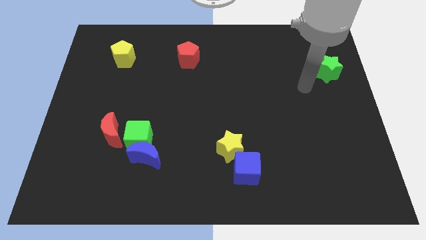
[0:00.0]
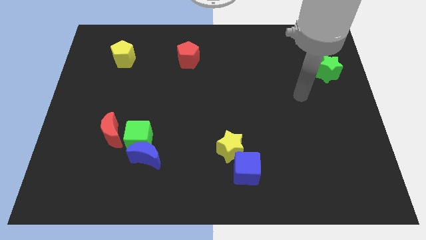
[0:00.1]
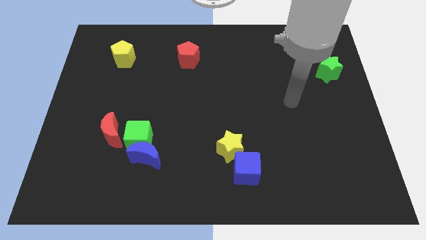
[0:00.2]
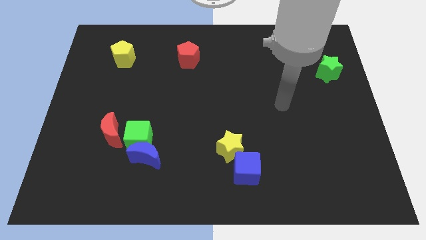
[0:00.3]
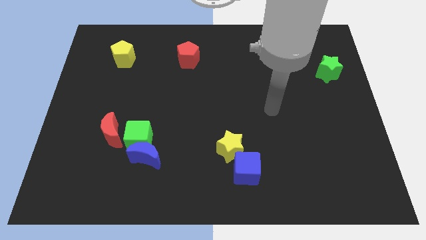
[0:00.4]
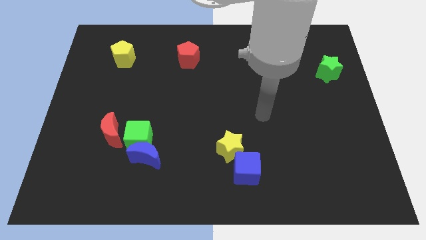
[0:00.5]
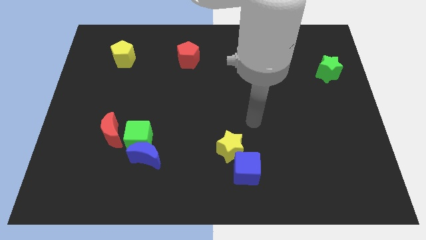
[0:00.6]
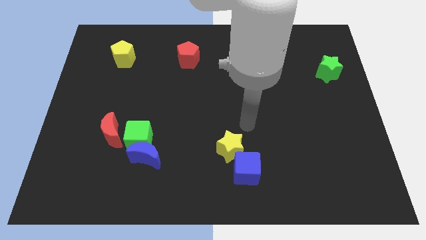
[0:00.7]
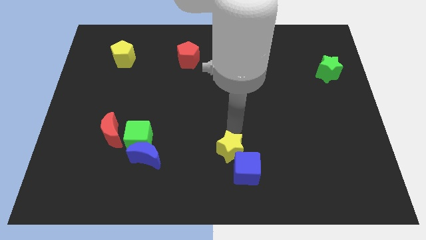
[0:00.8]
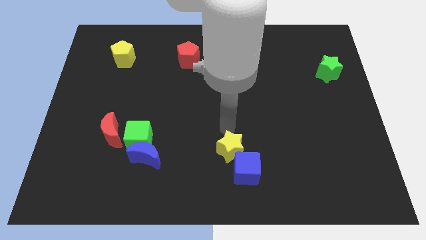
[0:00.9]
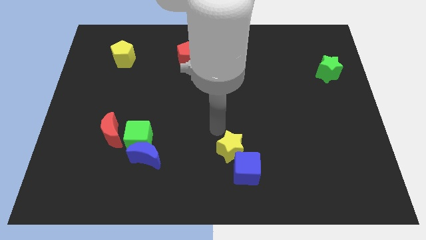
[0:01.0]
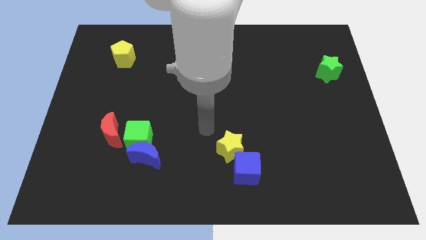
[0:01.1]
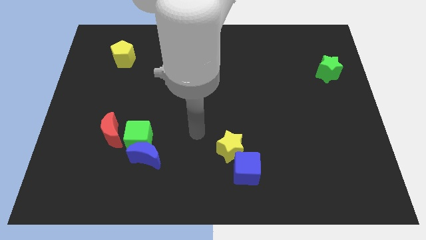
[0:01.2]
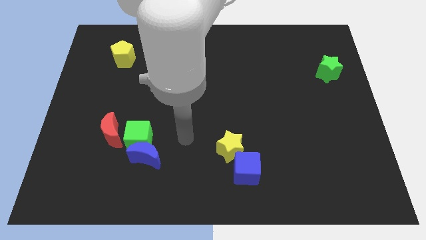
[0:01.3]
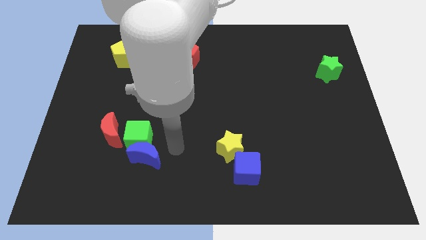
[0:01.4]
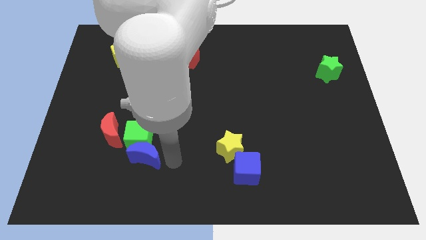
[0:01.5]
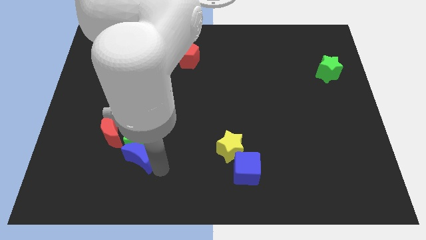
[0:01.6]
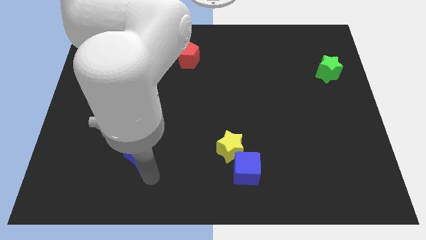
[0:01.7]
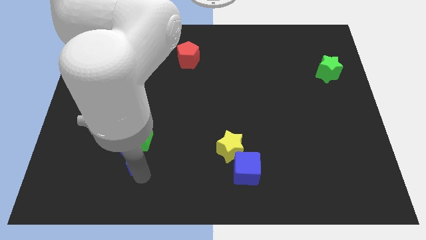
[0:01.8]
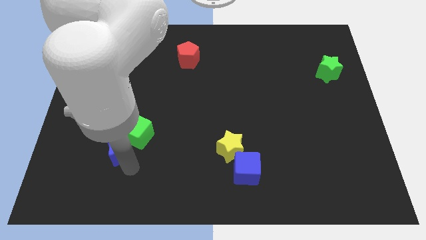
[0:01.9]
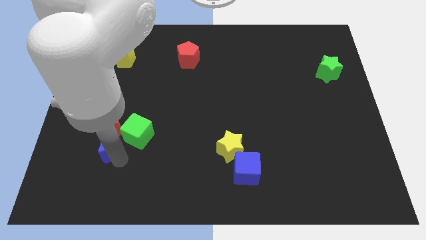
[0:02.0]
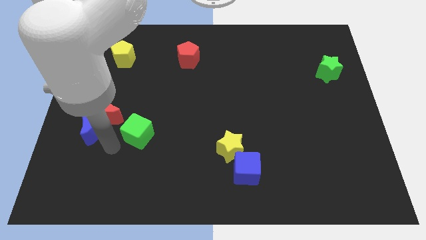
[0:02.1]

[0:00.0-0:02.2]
pull the green cube apart from the blue moon and red moon

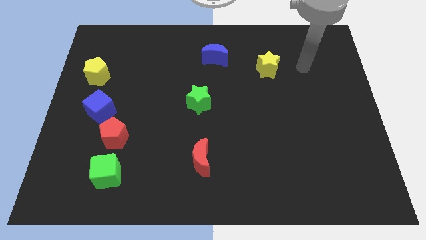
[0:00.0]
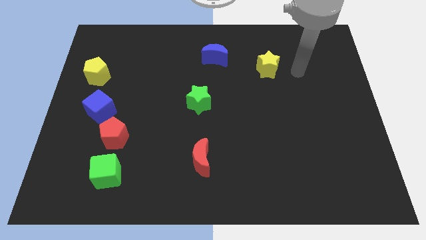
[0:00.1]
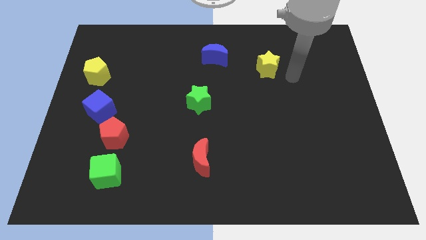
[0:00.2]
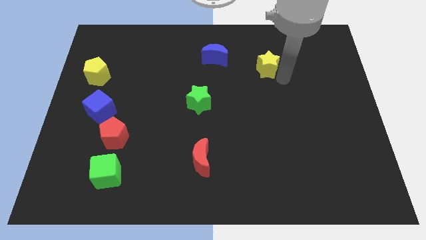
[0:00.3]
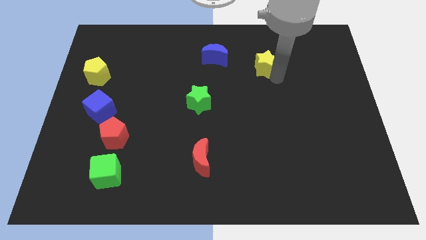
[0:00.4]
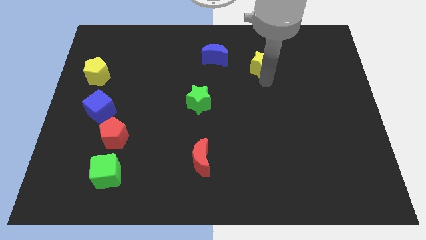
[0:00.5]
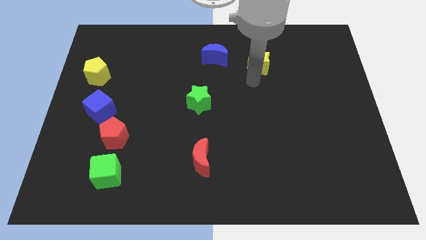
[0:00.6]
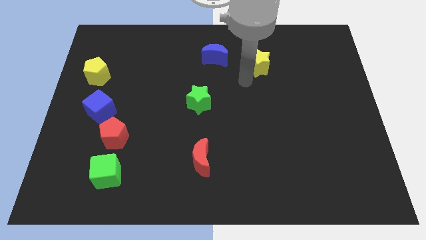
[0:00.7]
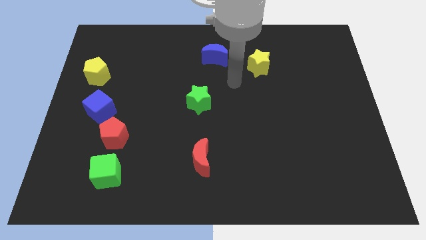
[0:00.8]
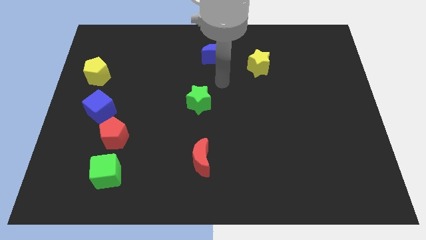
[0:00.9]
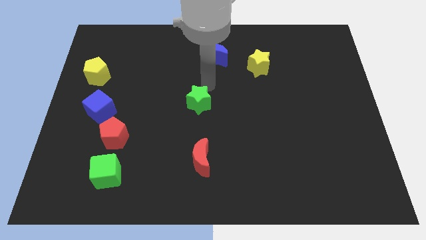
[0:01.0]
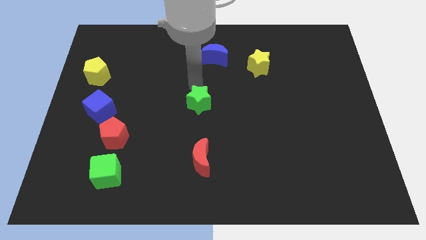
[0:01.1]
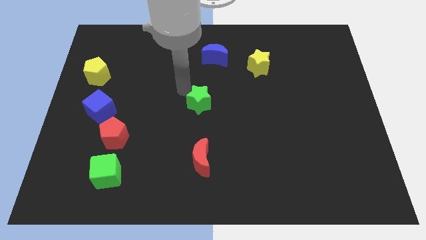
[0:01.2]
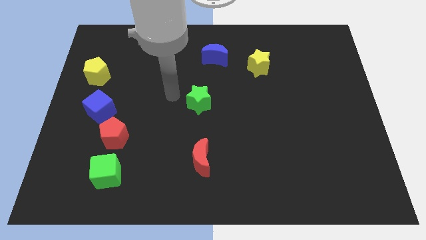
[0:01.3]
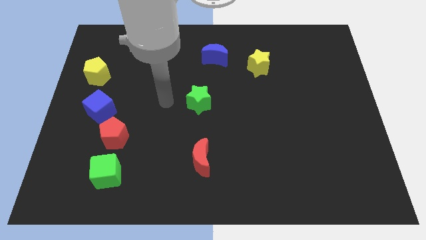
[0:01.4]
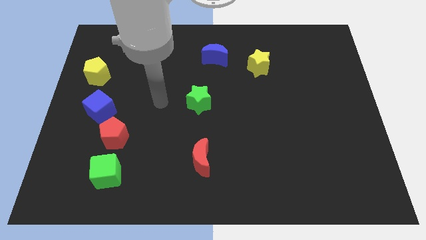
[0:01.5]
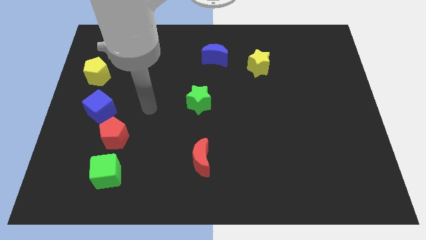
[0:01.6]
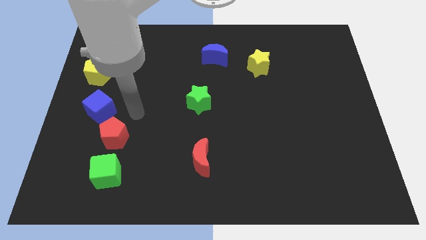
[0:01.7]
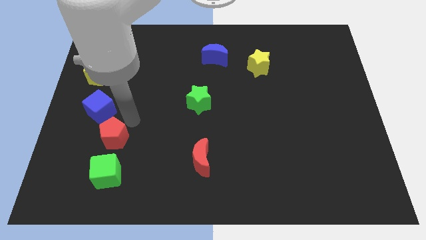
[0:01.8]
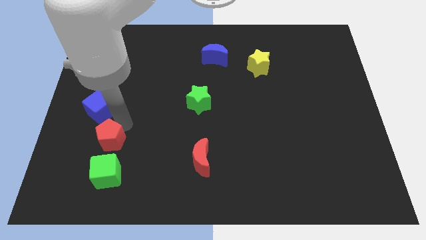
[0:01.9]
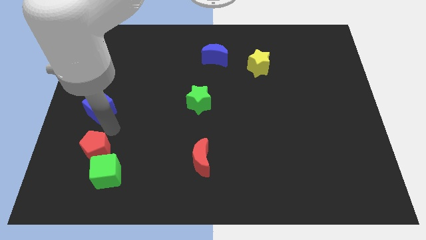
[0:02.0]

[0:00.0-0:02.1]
pull the blue cube apart from the red pentagon

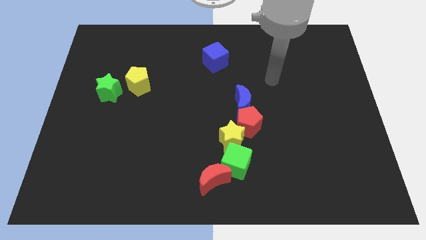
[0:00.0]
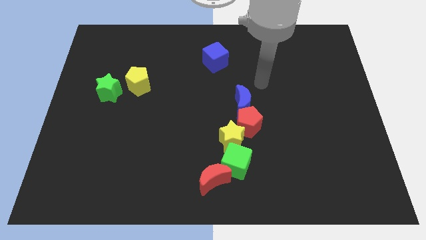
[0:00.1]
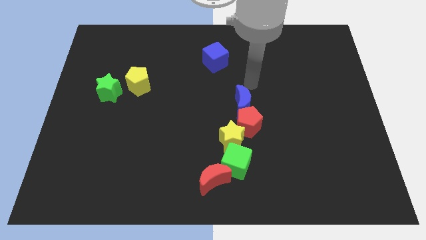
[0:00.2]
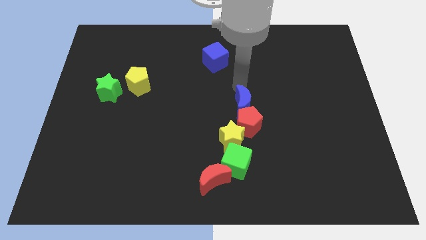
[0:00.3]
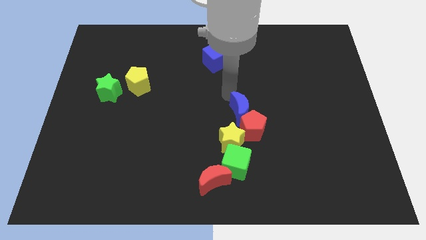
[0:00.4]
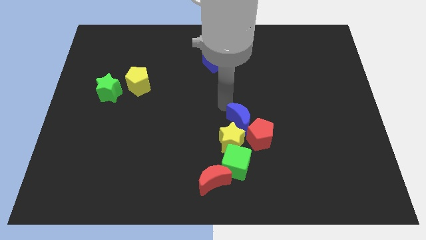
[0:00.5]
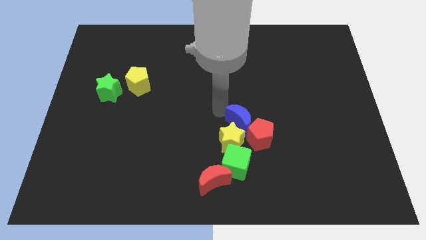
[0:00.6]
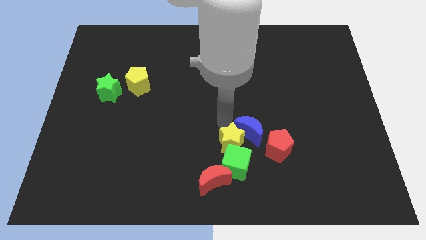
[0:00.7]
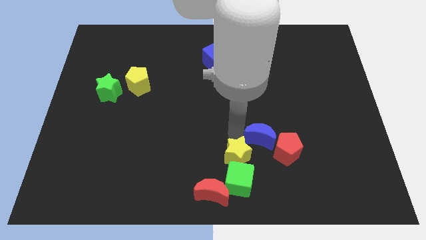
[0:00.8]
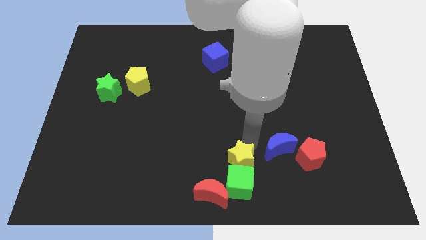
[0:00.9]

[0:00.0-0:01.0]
pull the red pentagon apart from the blue moon and yellow star

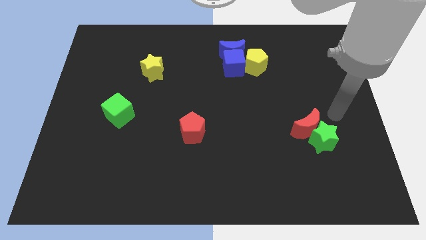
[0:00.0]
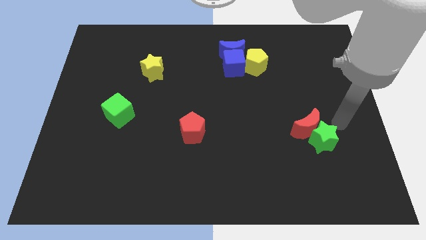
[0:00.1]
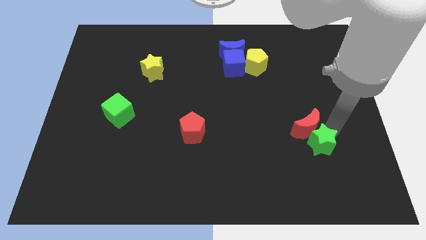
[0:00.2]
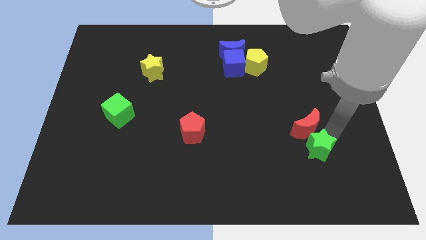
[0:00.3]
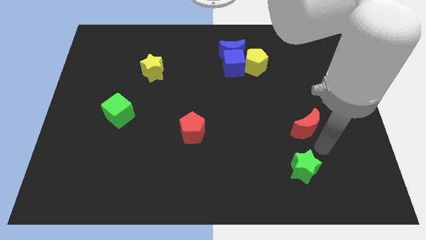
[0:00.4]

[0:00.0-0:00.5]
pull the red moon apart from the green star

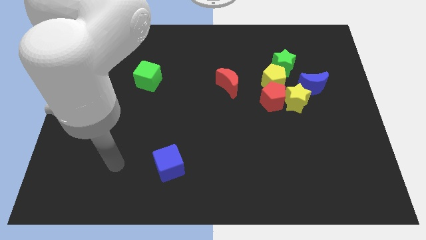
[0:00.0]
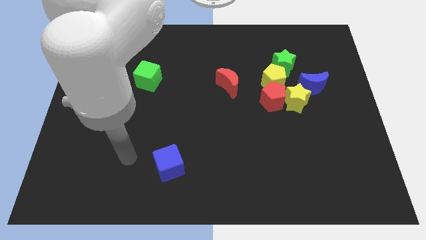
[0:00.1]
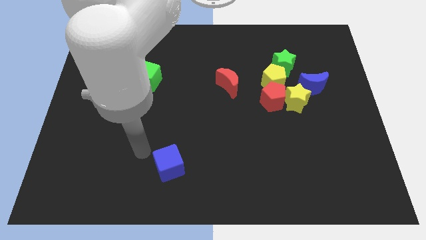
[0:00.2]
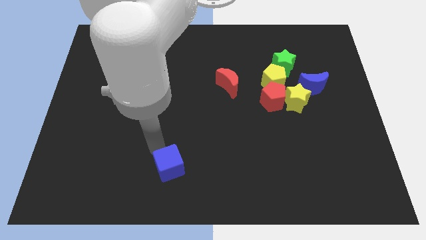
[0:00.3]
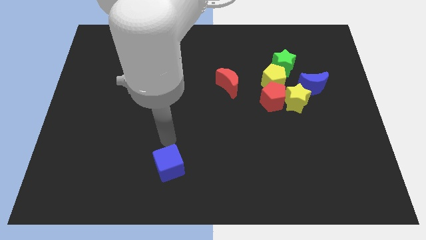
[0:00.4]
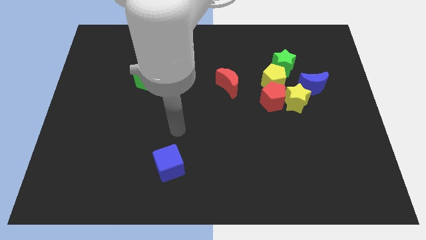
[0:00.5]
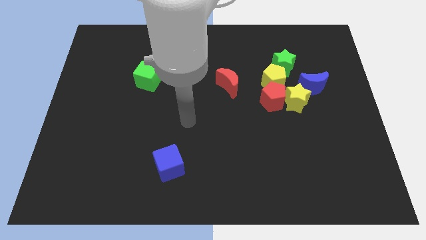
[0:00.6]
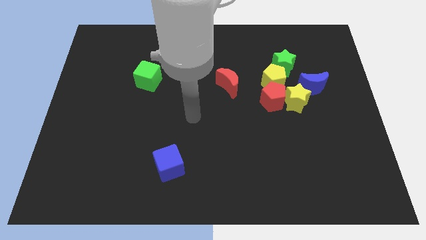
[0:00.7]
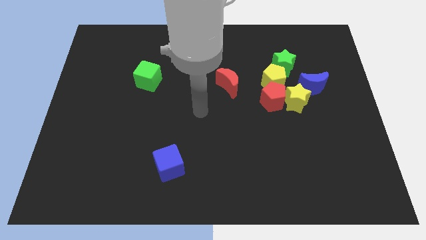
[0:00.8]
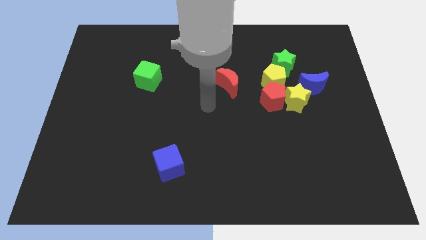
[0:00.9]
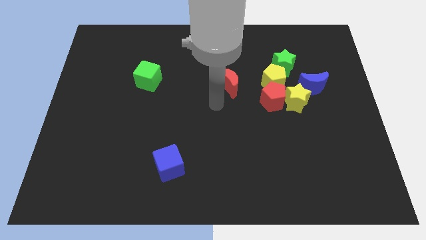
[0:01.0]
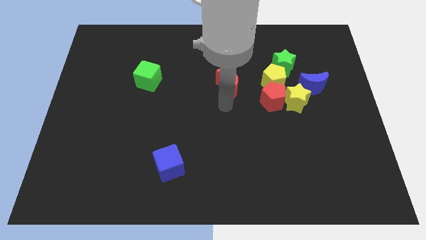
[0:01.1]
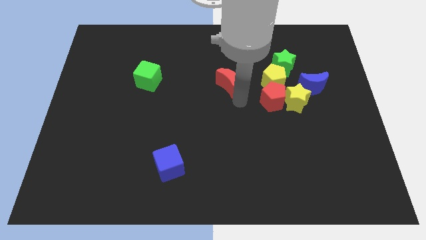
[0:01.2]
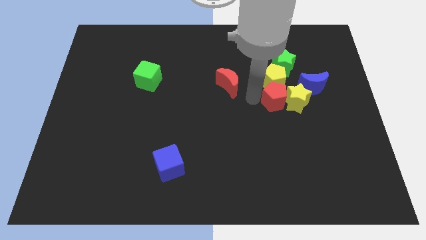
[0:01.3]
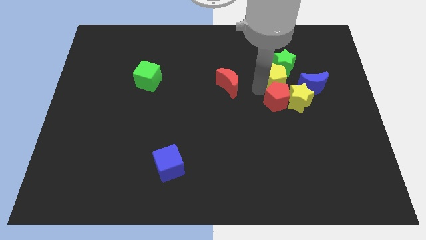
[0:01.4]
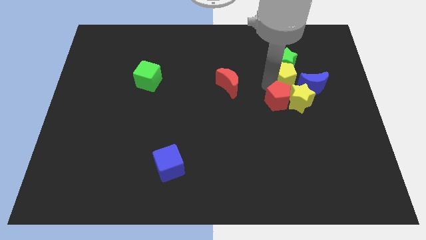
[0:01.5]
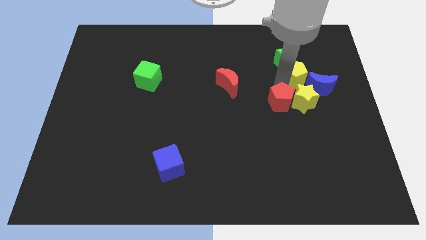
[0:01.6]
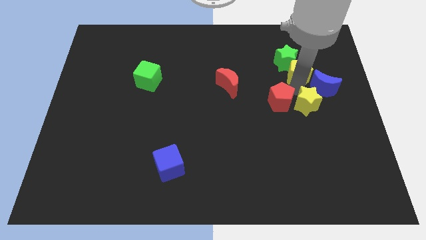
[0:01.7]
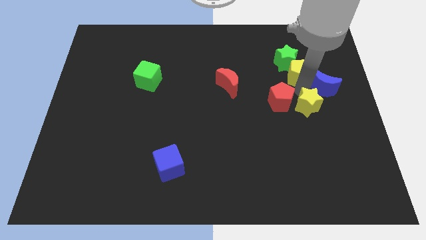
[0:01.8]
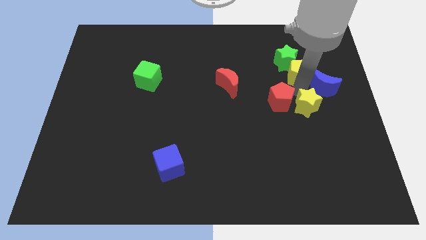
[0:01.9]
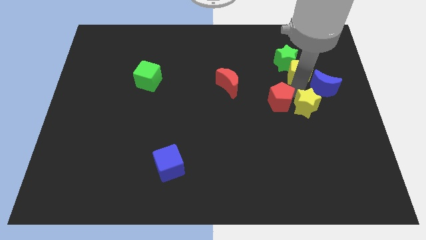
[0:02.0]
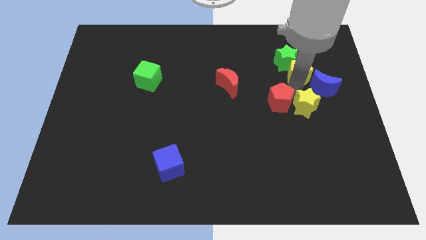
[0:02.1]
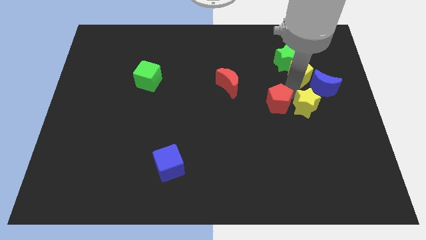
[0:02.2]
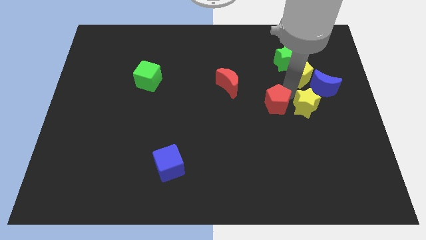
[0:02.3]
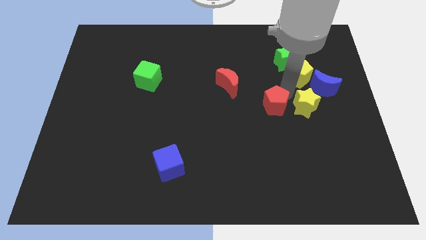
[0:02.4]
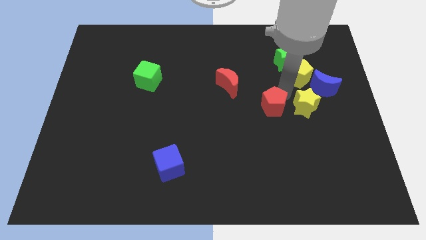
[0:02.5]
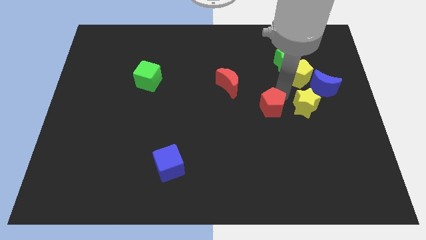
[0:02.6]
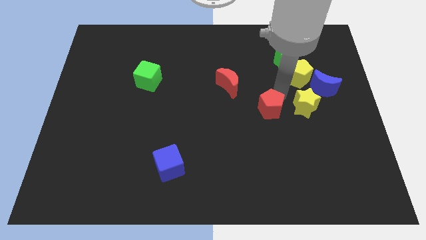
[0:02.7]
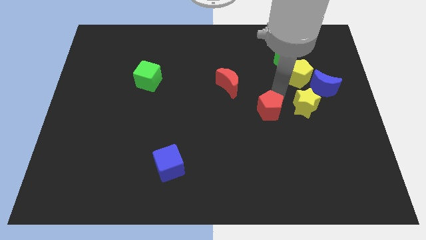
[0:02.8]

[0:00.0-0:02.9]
separate the red pentagon from the yellow star and yellow pentagon

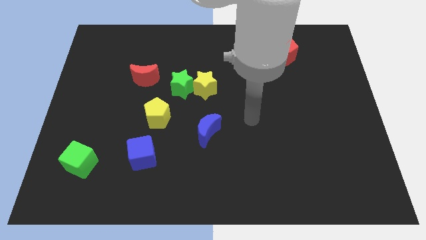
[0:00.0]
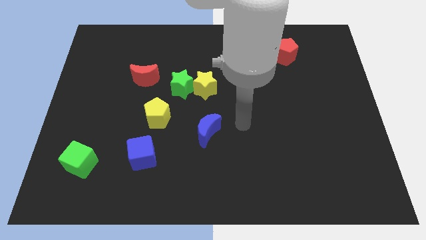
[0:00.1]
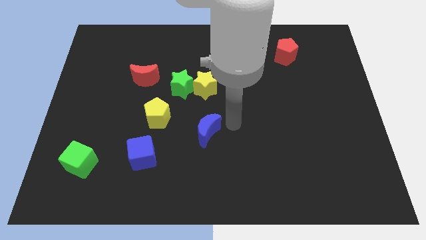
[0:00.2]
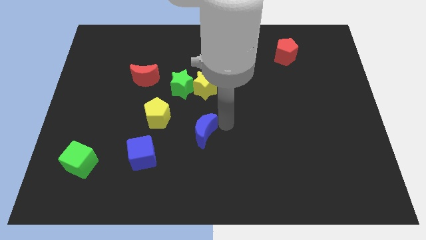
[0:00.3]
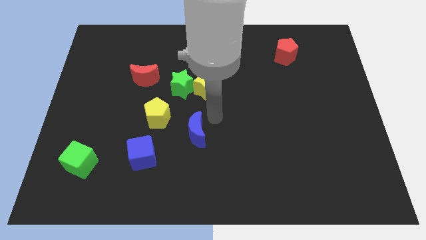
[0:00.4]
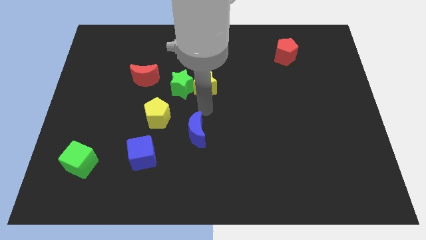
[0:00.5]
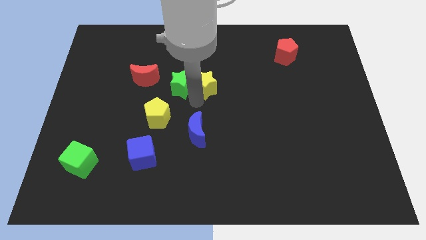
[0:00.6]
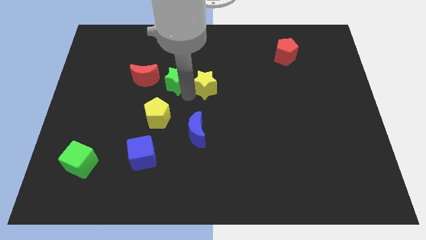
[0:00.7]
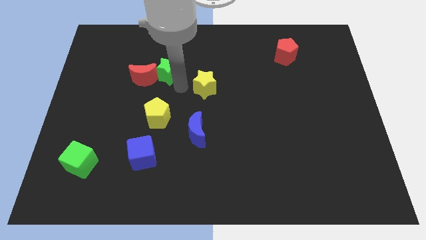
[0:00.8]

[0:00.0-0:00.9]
pull the yellow star apart from the green star
